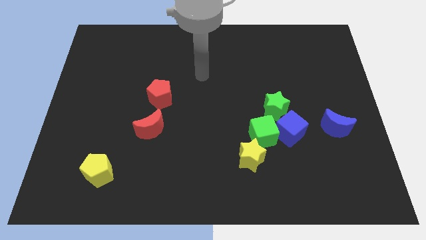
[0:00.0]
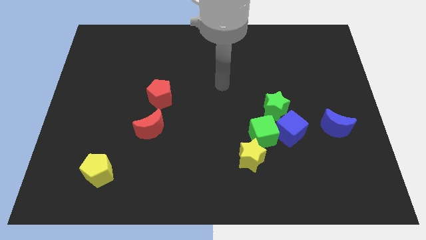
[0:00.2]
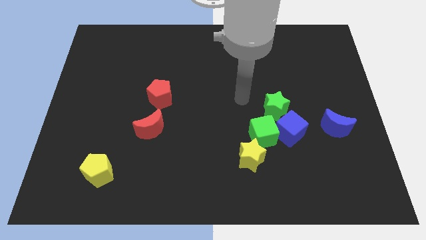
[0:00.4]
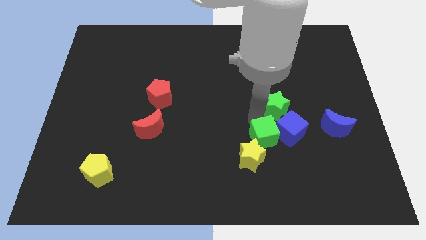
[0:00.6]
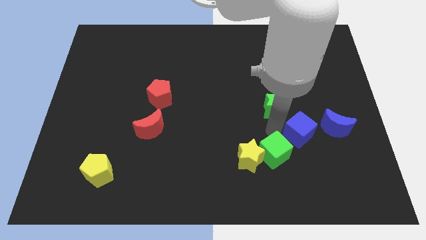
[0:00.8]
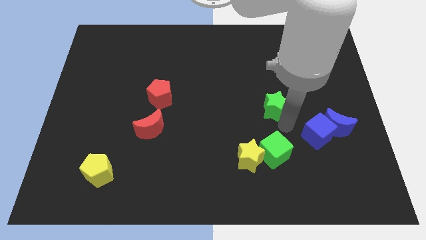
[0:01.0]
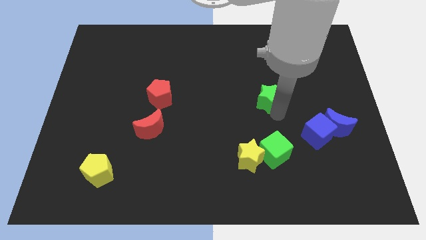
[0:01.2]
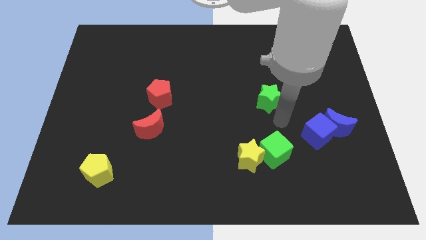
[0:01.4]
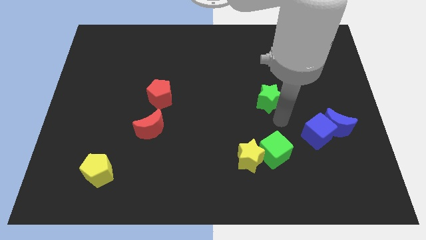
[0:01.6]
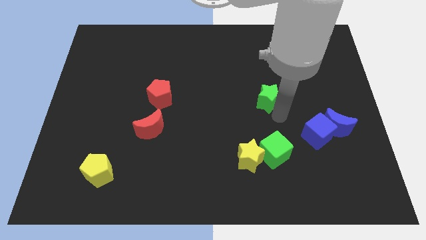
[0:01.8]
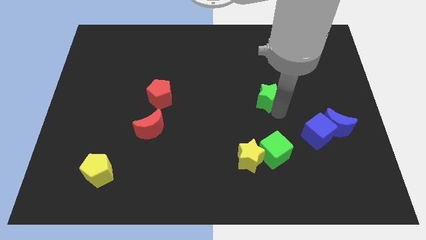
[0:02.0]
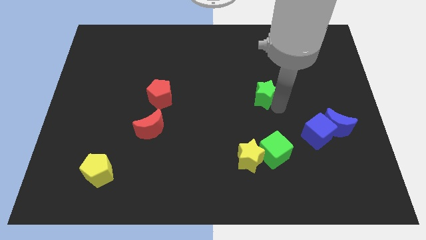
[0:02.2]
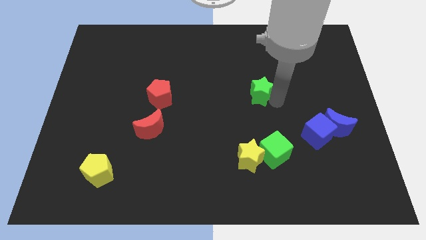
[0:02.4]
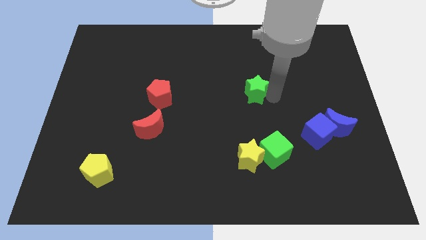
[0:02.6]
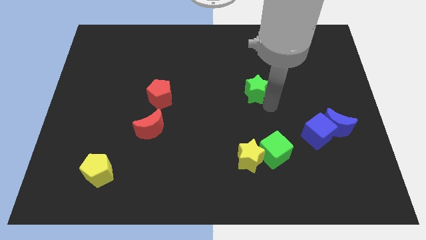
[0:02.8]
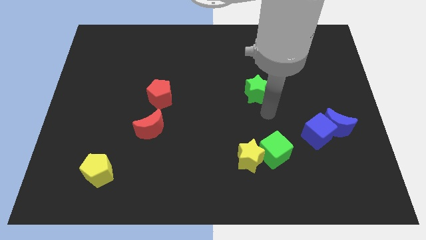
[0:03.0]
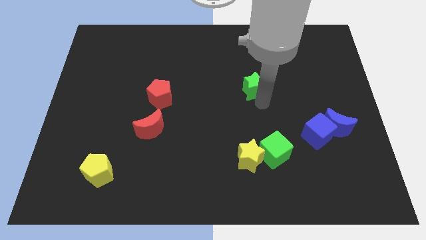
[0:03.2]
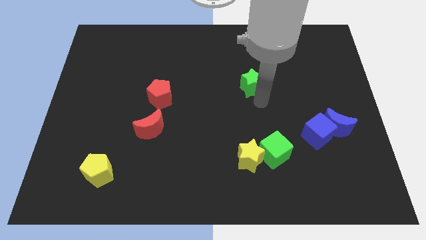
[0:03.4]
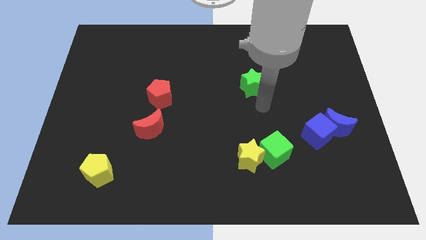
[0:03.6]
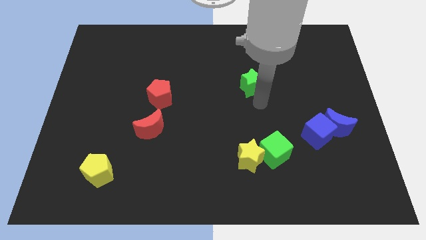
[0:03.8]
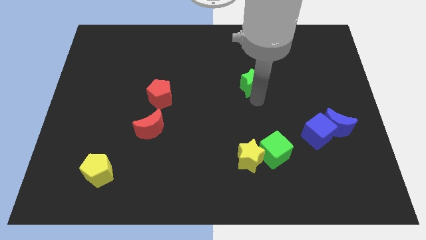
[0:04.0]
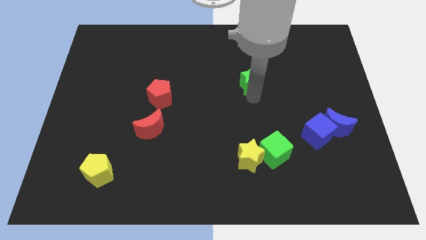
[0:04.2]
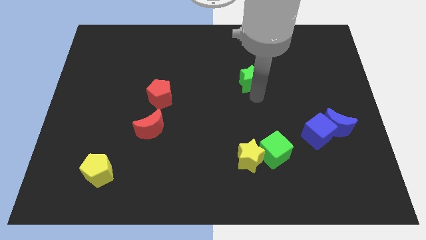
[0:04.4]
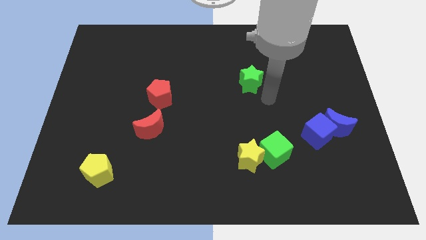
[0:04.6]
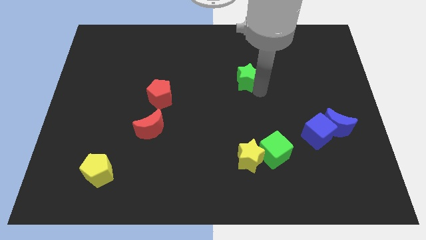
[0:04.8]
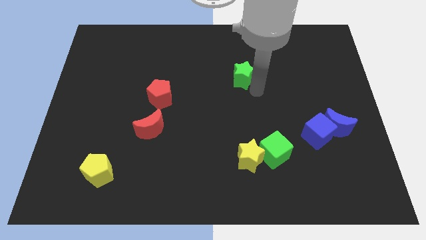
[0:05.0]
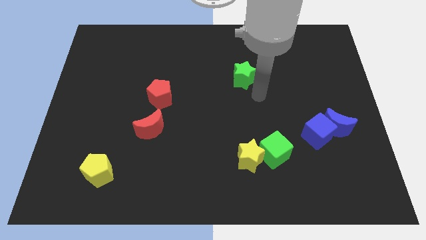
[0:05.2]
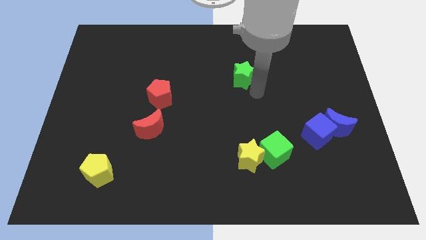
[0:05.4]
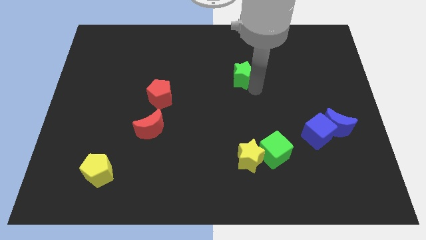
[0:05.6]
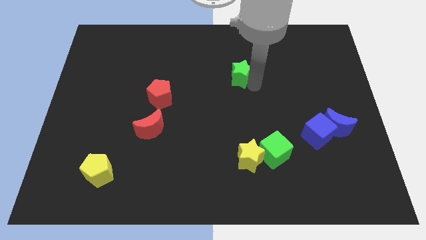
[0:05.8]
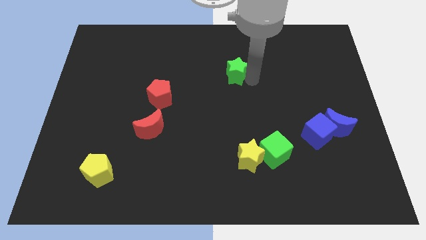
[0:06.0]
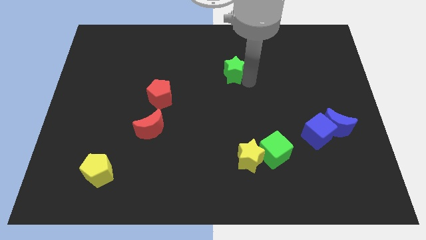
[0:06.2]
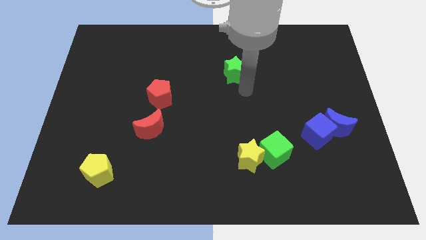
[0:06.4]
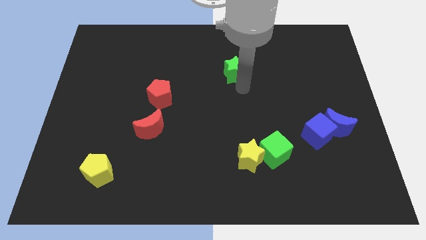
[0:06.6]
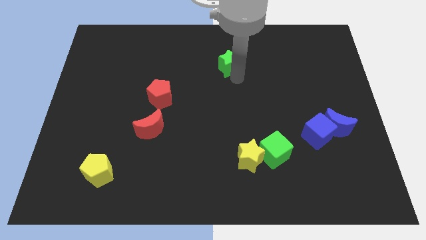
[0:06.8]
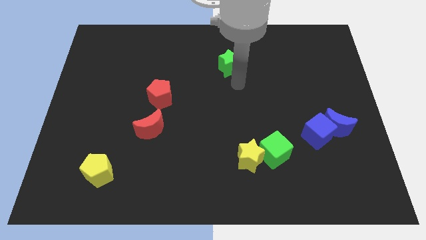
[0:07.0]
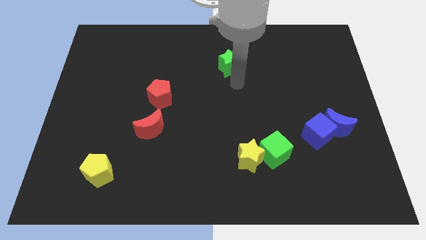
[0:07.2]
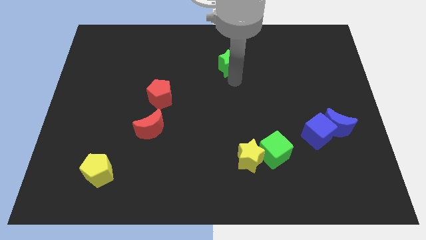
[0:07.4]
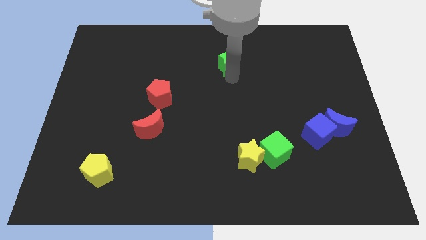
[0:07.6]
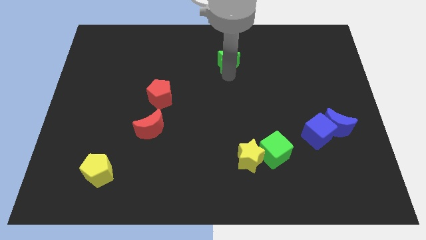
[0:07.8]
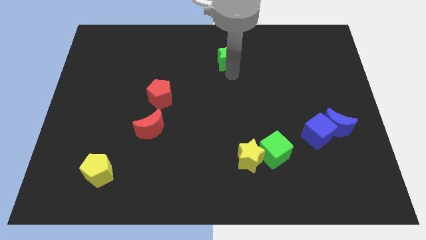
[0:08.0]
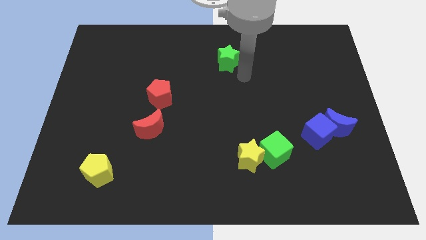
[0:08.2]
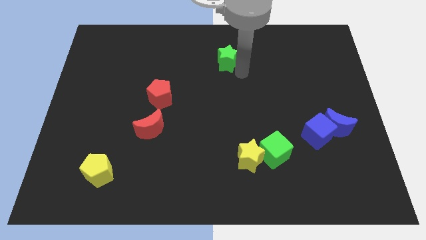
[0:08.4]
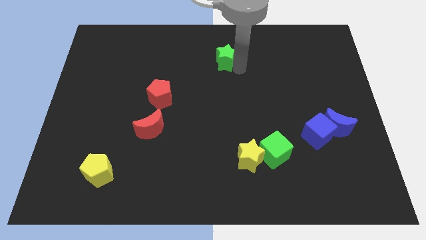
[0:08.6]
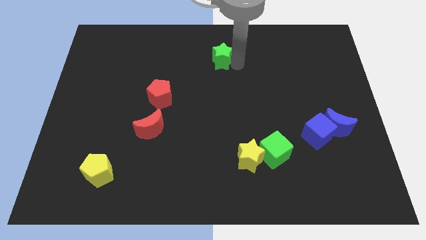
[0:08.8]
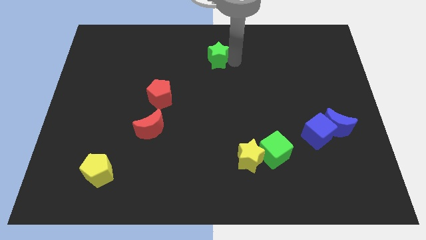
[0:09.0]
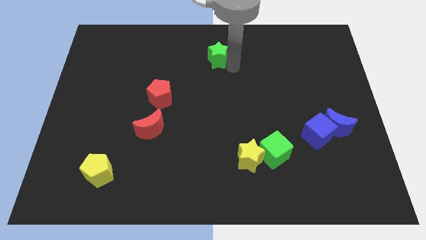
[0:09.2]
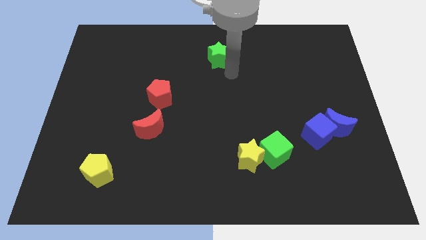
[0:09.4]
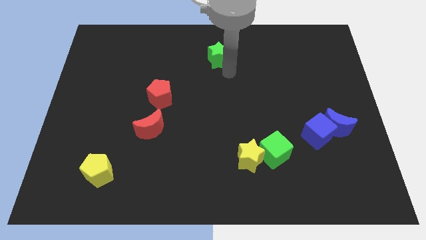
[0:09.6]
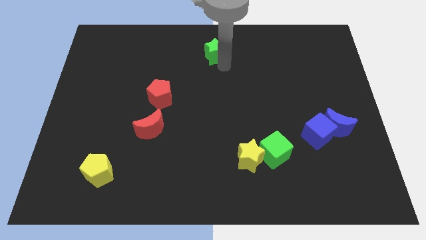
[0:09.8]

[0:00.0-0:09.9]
move the green star to the top

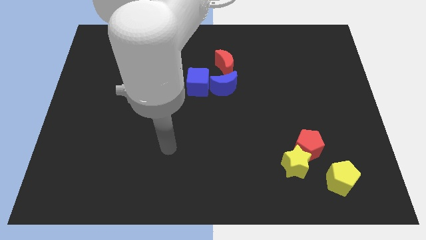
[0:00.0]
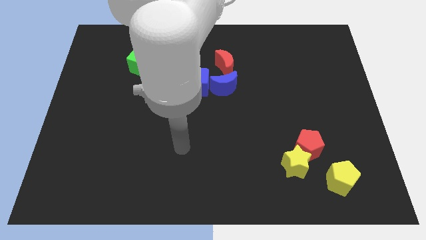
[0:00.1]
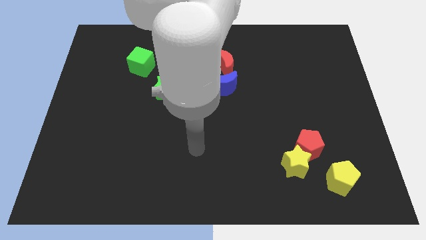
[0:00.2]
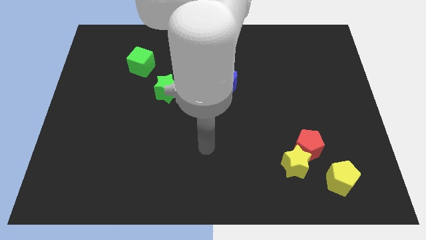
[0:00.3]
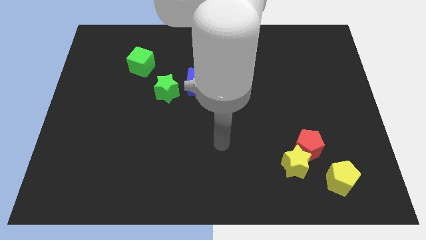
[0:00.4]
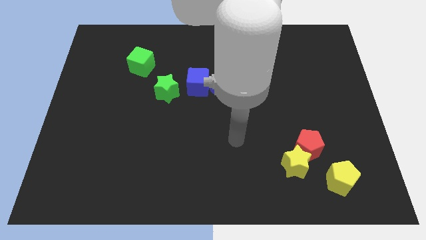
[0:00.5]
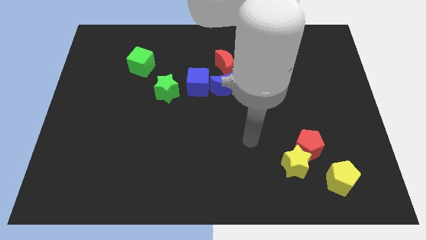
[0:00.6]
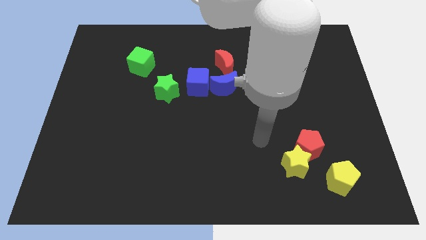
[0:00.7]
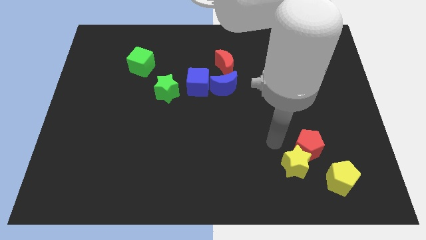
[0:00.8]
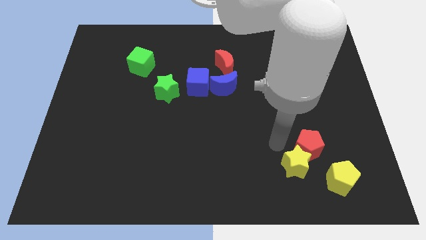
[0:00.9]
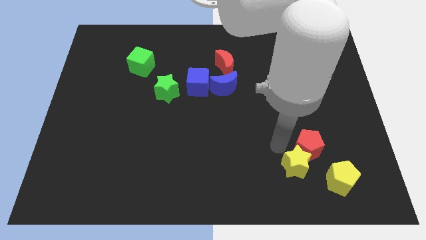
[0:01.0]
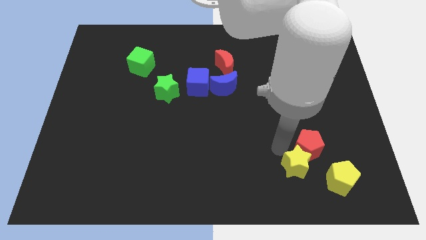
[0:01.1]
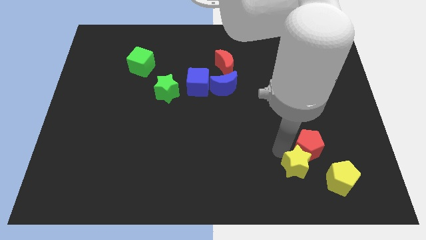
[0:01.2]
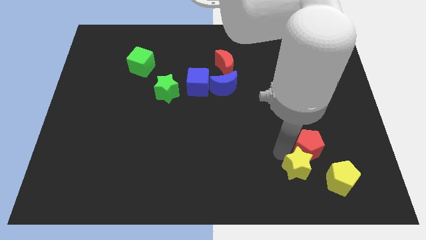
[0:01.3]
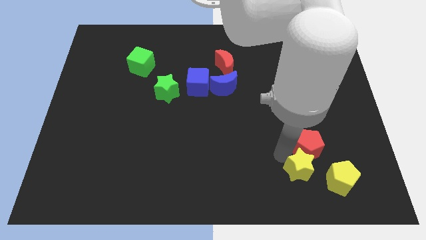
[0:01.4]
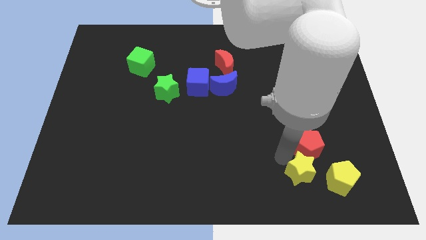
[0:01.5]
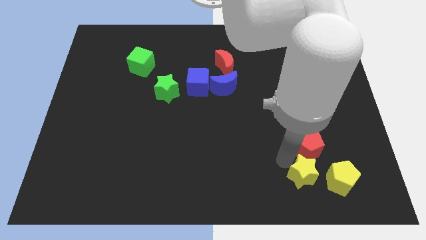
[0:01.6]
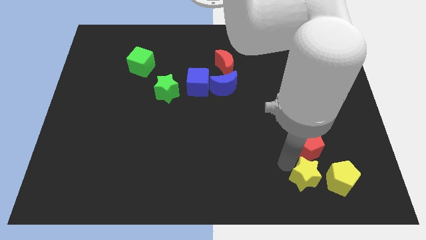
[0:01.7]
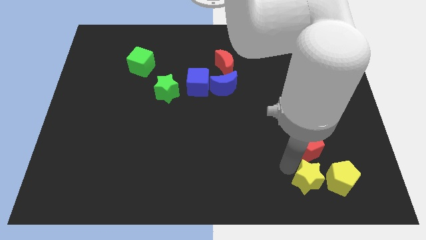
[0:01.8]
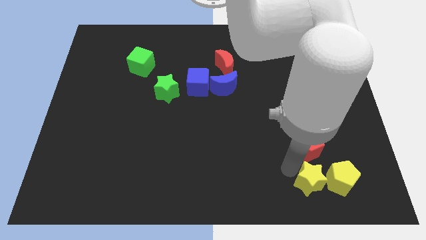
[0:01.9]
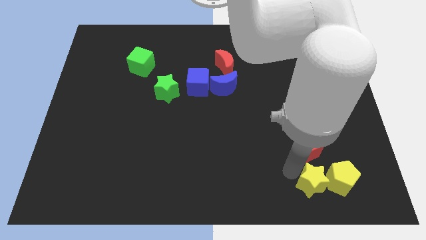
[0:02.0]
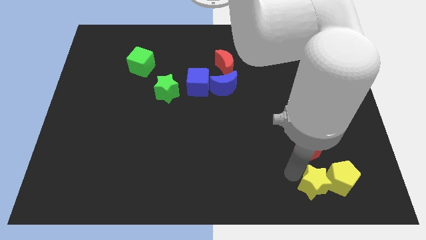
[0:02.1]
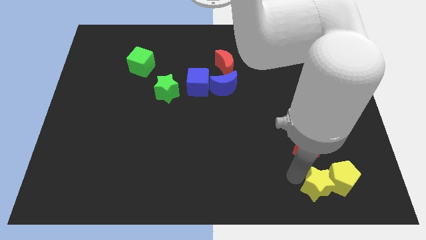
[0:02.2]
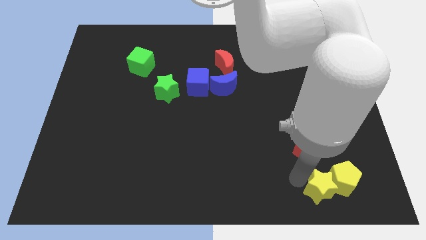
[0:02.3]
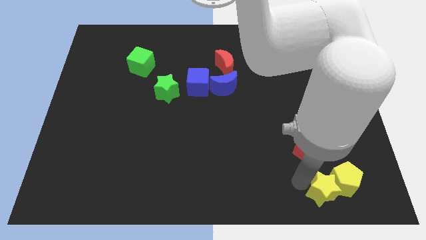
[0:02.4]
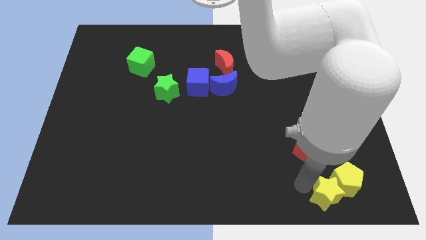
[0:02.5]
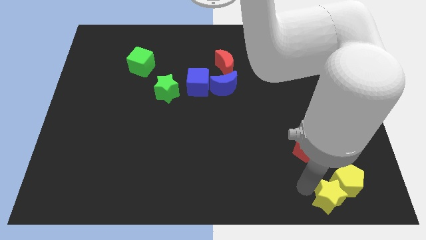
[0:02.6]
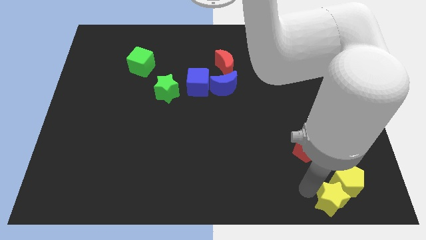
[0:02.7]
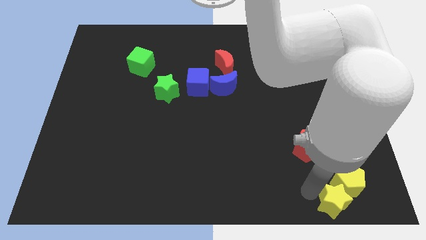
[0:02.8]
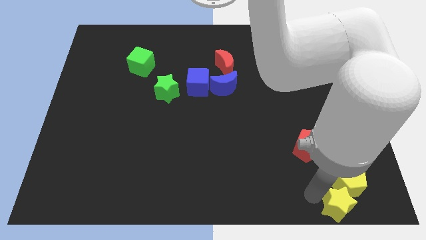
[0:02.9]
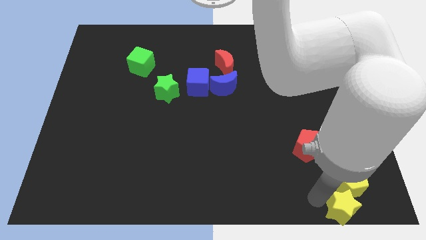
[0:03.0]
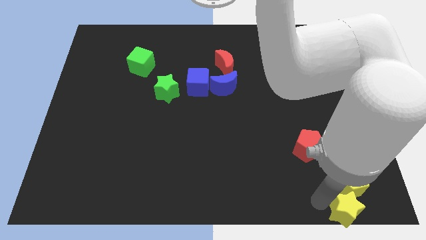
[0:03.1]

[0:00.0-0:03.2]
move the yellow star to the bottom right
